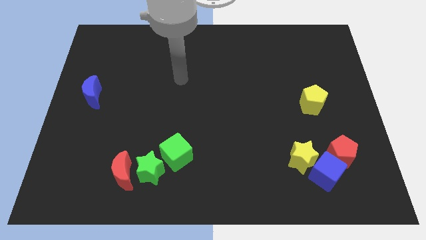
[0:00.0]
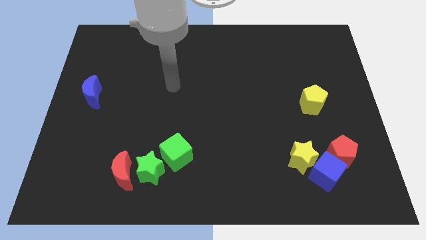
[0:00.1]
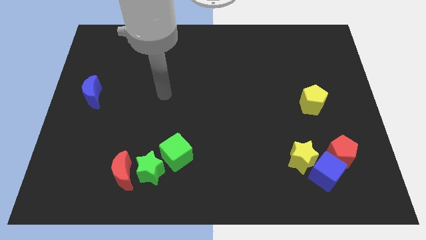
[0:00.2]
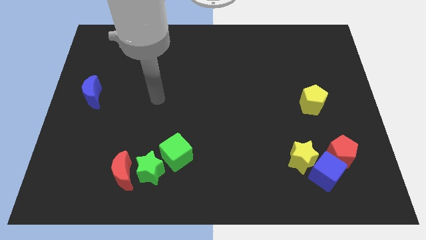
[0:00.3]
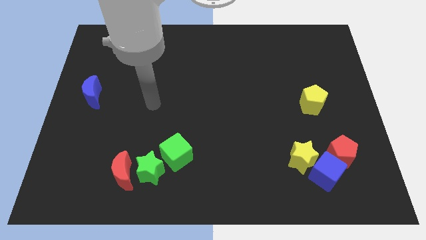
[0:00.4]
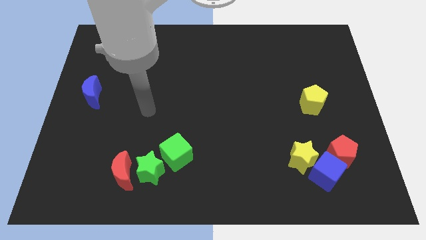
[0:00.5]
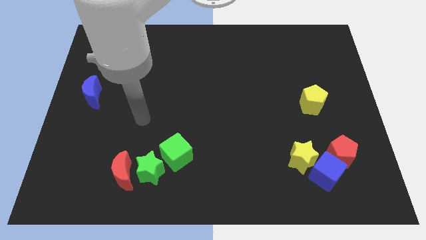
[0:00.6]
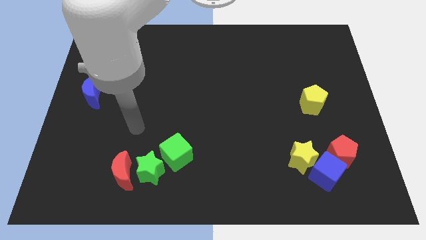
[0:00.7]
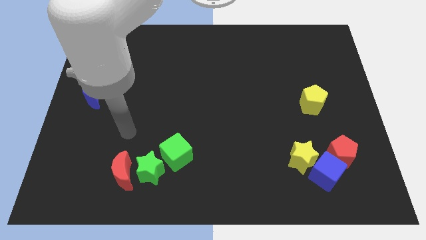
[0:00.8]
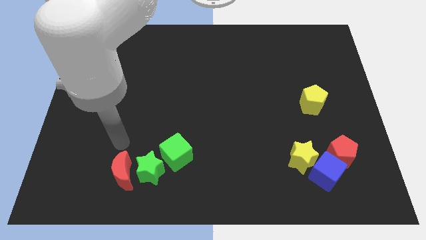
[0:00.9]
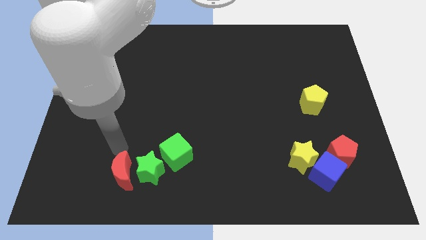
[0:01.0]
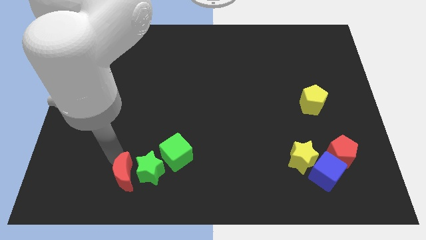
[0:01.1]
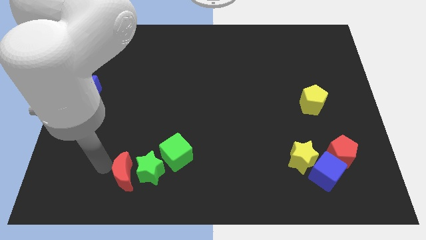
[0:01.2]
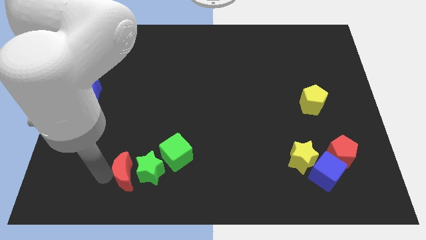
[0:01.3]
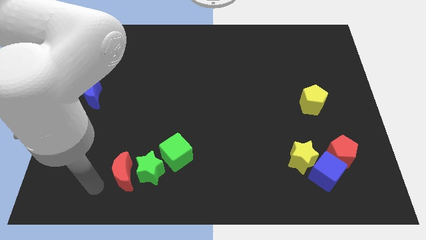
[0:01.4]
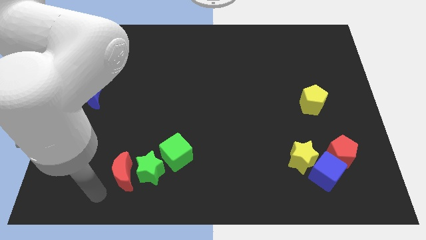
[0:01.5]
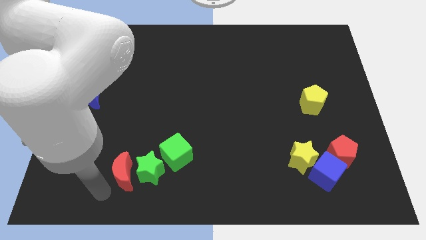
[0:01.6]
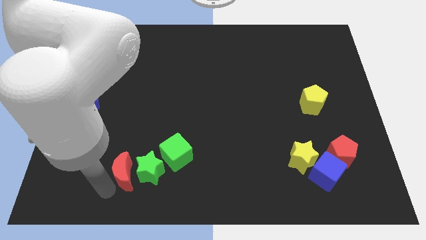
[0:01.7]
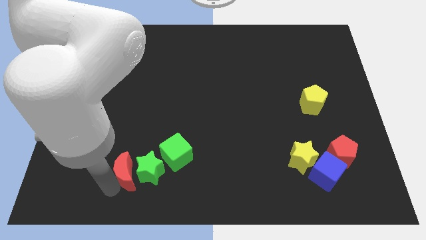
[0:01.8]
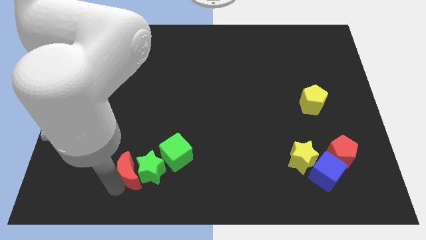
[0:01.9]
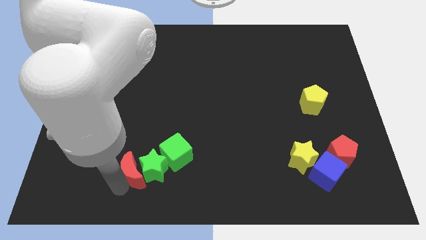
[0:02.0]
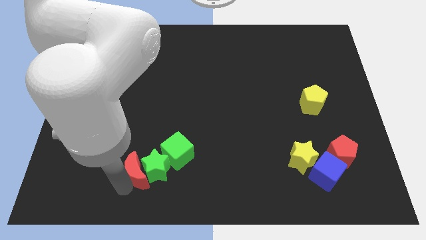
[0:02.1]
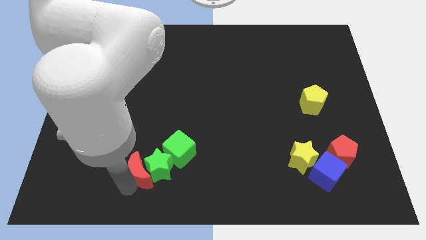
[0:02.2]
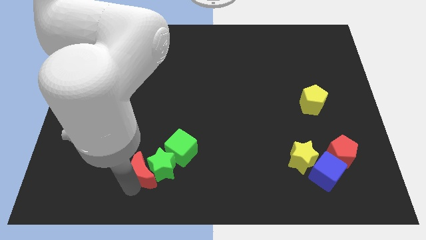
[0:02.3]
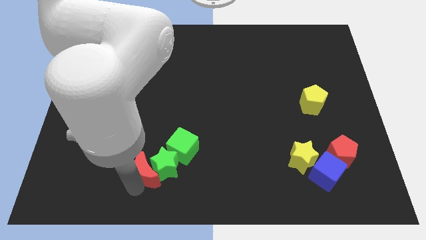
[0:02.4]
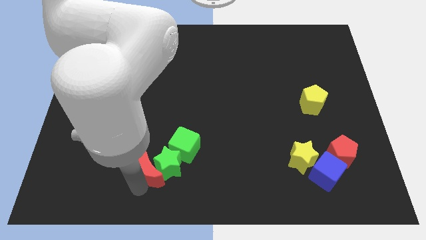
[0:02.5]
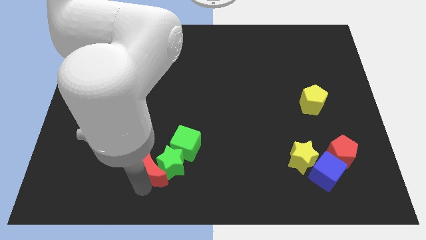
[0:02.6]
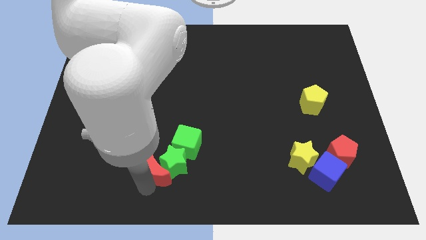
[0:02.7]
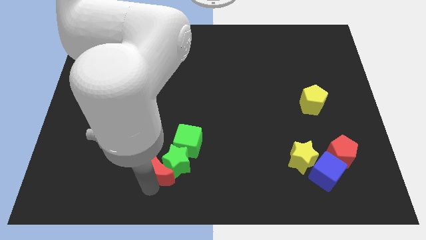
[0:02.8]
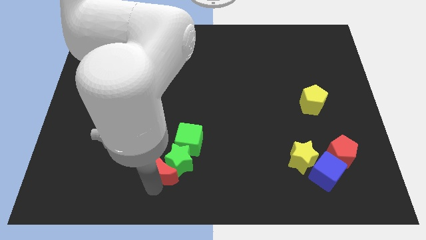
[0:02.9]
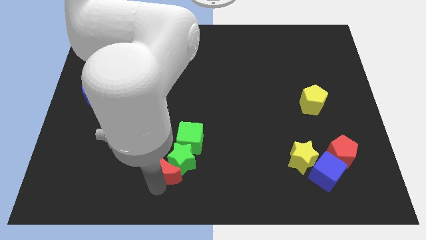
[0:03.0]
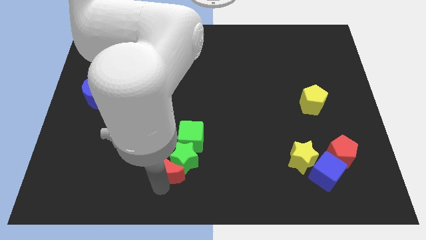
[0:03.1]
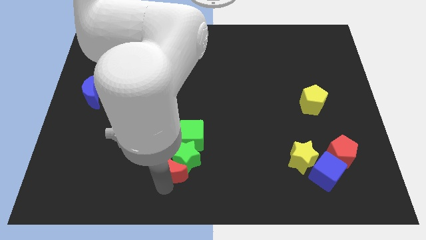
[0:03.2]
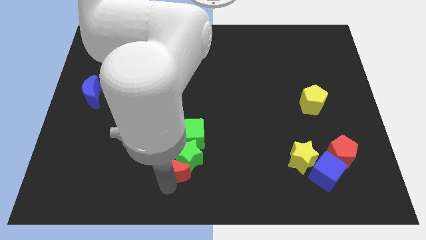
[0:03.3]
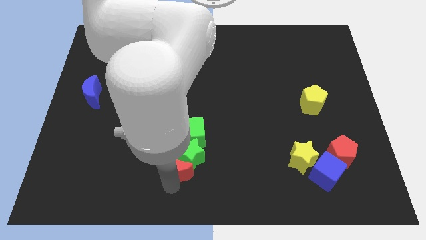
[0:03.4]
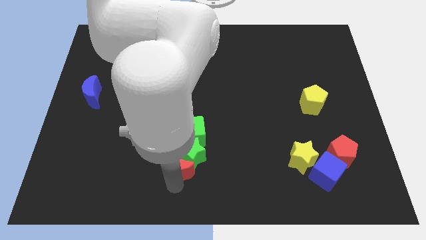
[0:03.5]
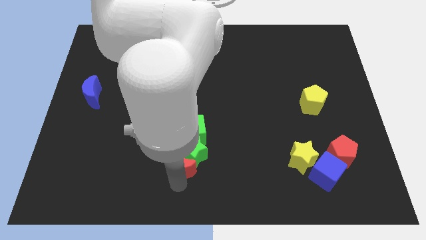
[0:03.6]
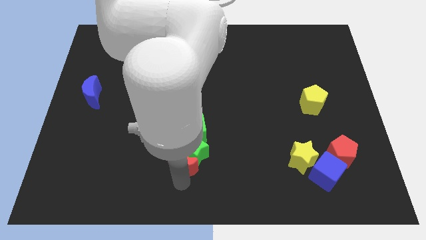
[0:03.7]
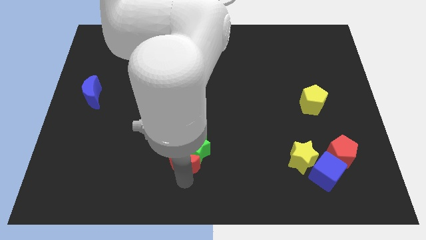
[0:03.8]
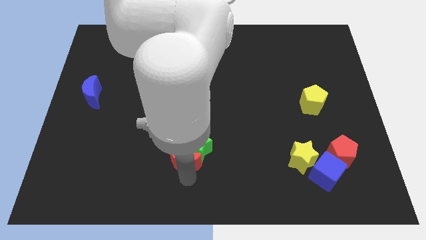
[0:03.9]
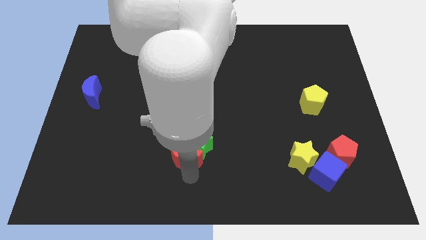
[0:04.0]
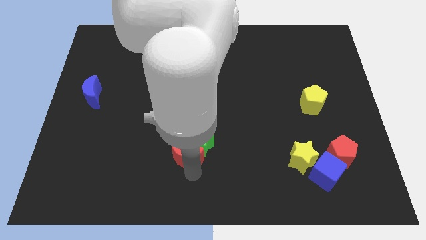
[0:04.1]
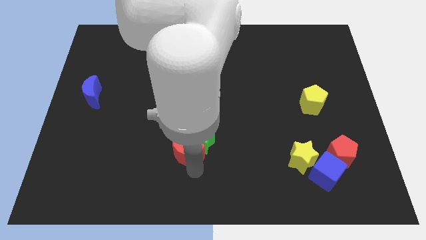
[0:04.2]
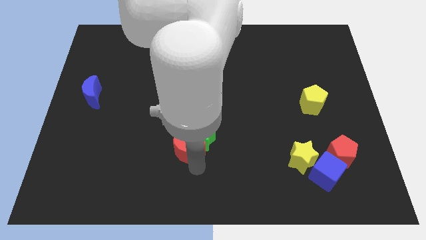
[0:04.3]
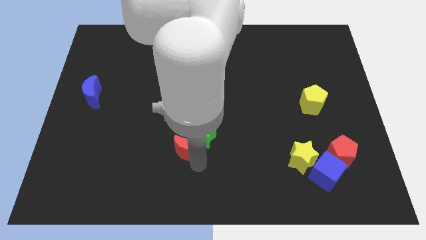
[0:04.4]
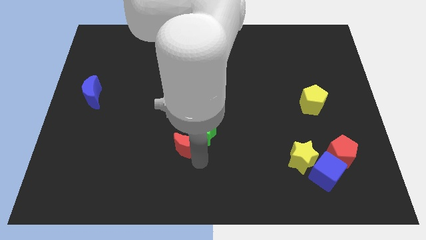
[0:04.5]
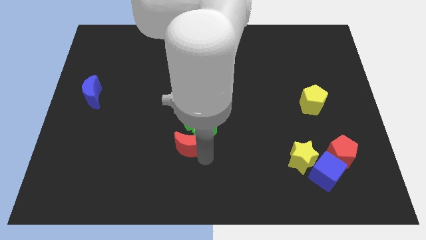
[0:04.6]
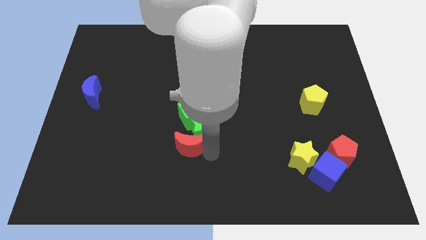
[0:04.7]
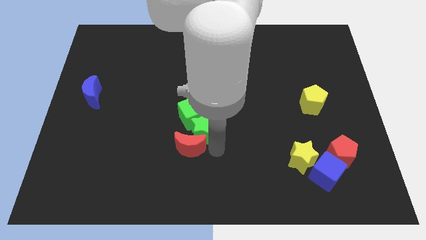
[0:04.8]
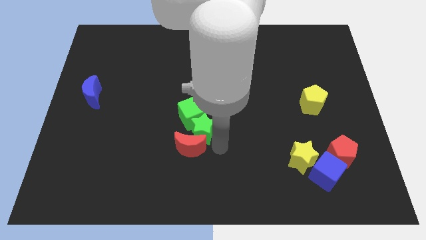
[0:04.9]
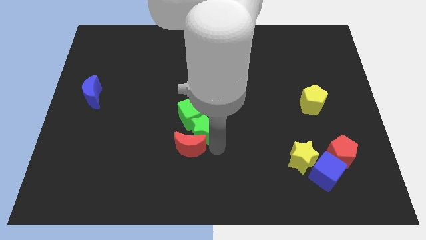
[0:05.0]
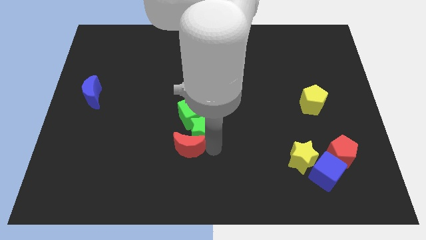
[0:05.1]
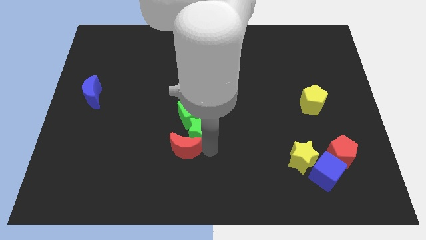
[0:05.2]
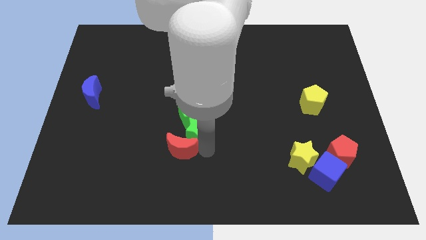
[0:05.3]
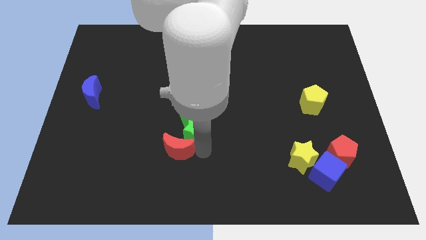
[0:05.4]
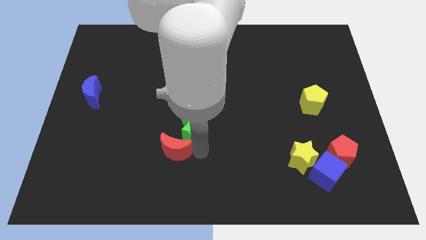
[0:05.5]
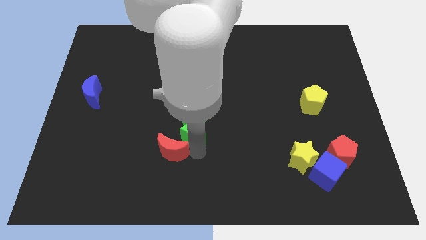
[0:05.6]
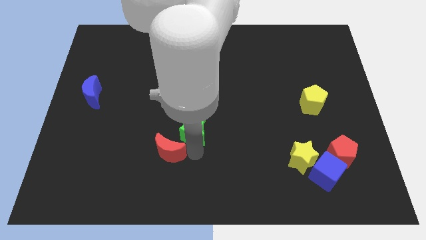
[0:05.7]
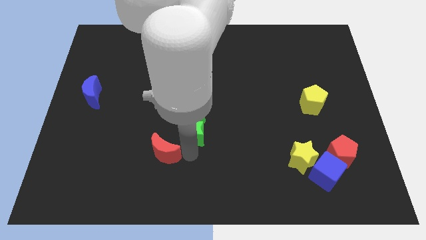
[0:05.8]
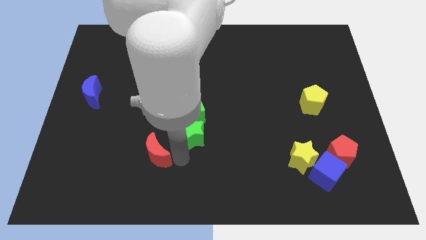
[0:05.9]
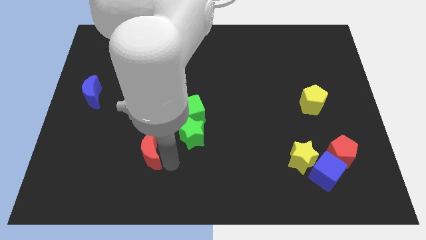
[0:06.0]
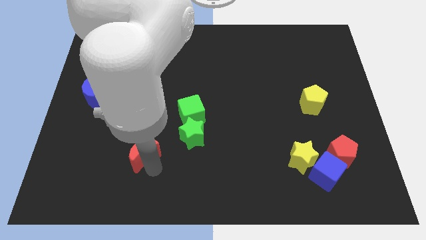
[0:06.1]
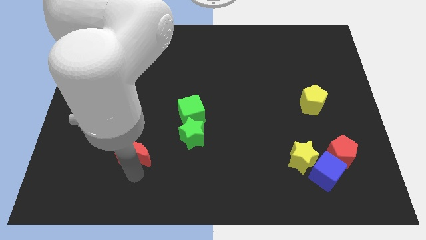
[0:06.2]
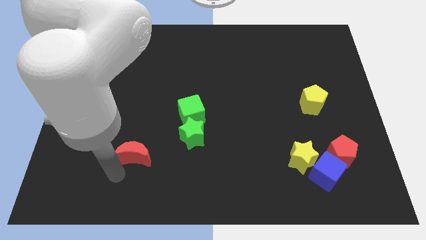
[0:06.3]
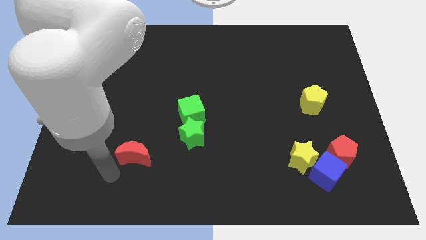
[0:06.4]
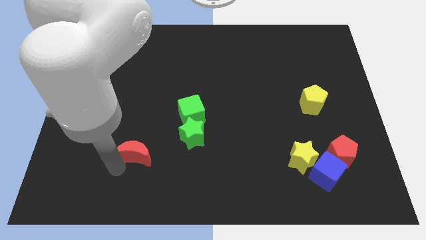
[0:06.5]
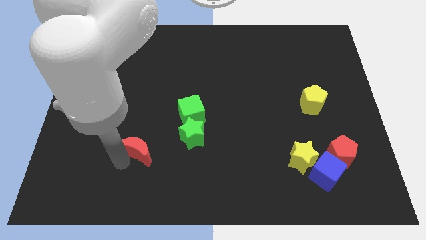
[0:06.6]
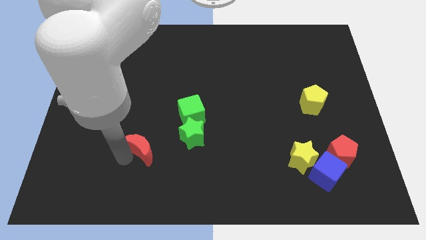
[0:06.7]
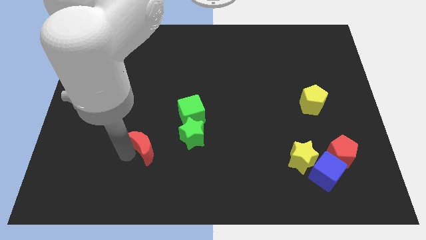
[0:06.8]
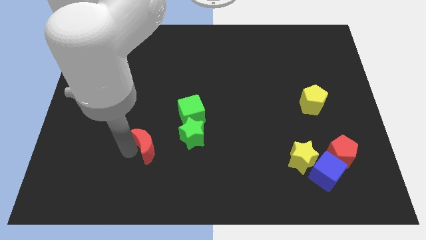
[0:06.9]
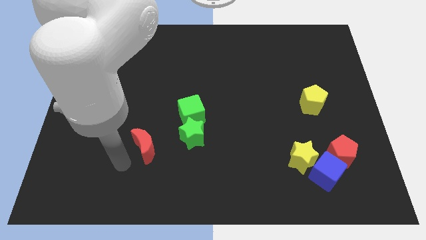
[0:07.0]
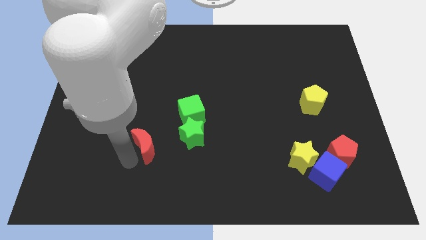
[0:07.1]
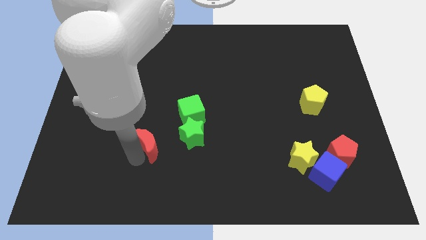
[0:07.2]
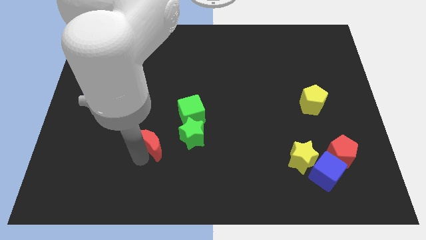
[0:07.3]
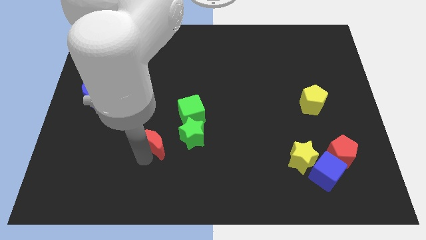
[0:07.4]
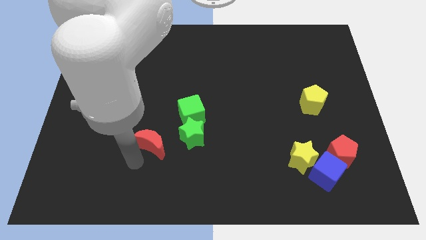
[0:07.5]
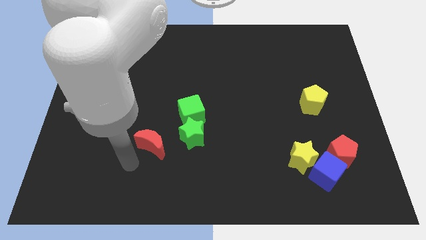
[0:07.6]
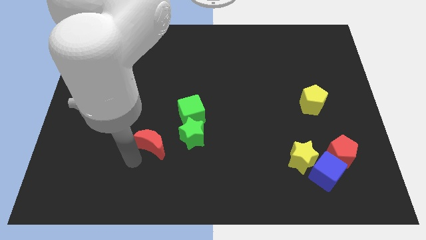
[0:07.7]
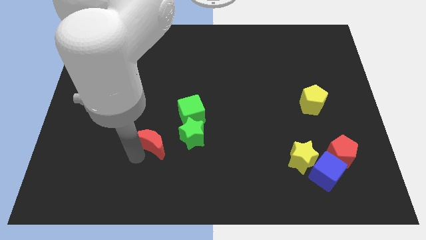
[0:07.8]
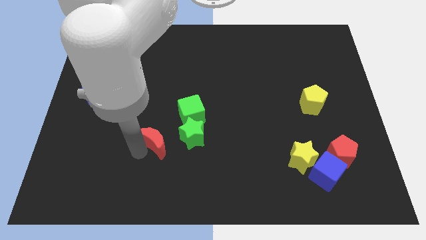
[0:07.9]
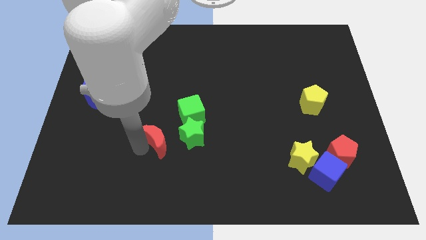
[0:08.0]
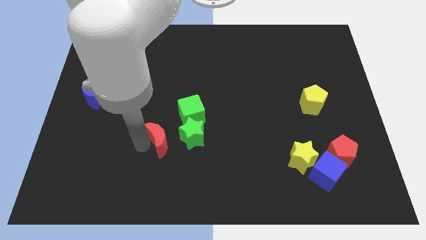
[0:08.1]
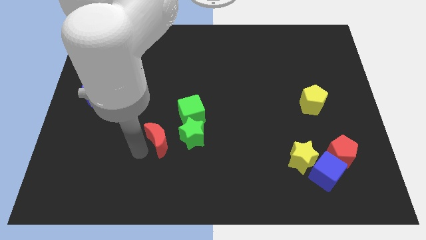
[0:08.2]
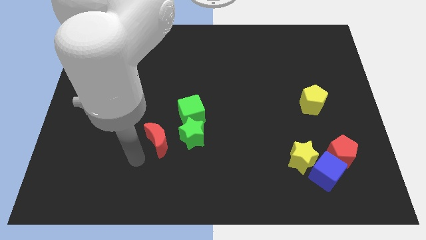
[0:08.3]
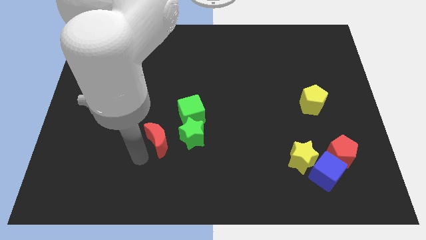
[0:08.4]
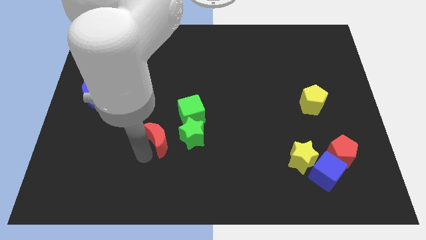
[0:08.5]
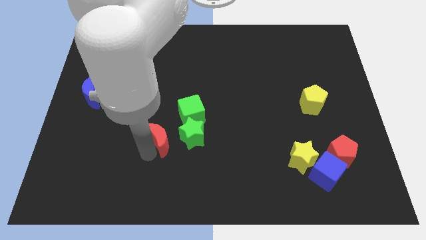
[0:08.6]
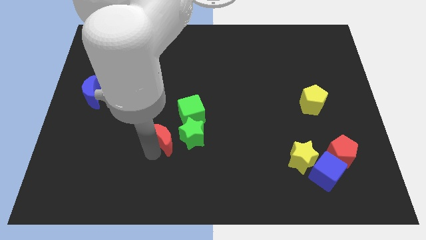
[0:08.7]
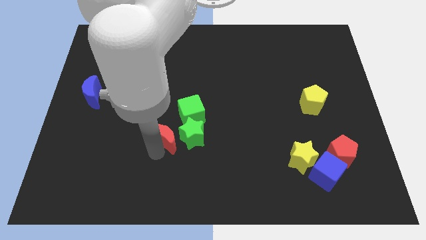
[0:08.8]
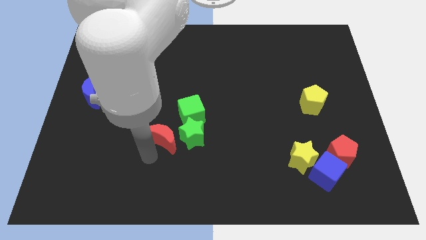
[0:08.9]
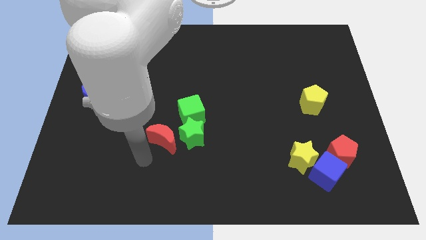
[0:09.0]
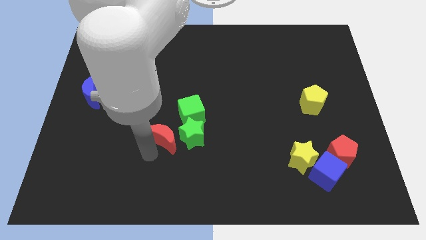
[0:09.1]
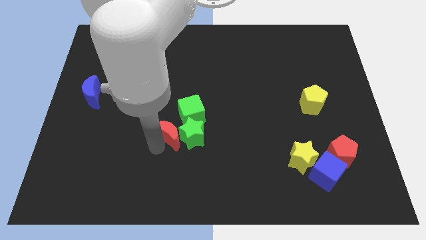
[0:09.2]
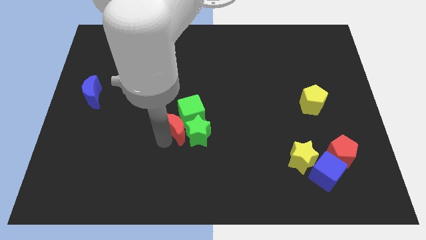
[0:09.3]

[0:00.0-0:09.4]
slide the red moon towards the green cube
